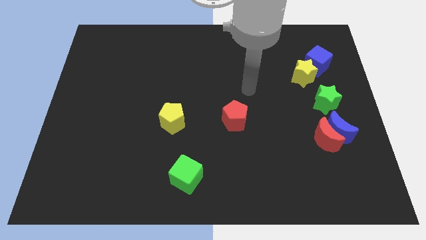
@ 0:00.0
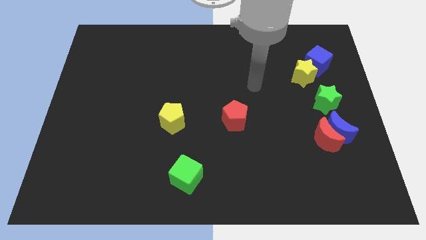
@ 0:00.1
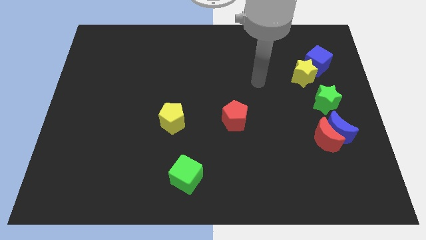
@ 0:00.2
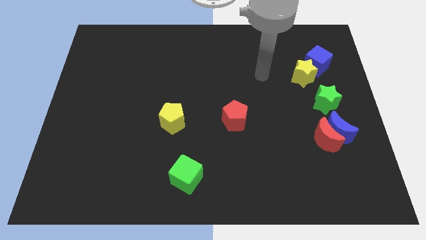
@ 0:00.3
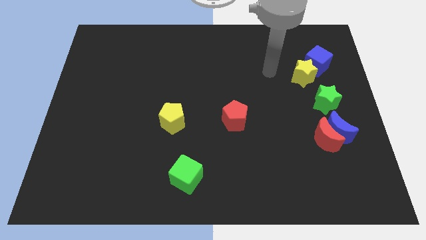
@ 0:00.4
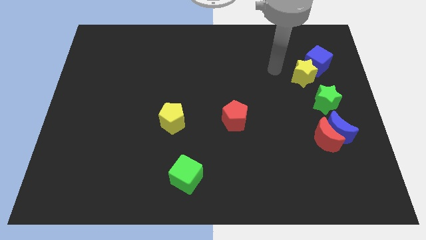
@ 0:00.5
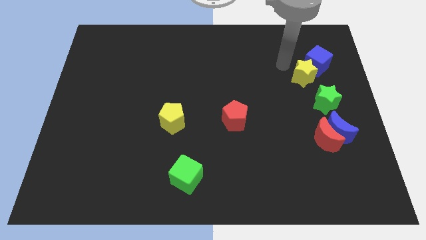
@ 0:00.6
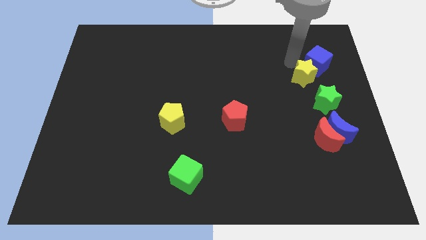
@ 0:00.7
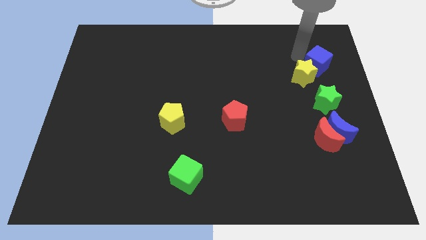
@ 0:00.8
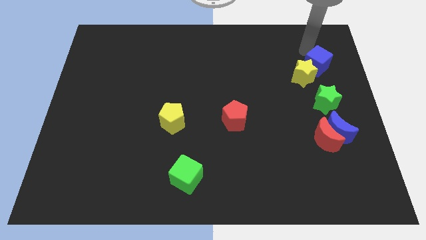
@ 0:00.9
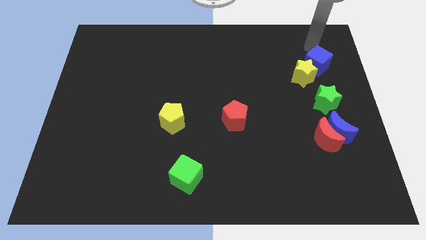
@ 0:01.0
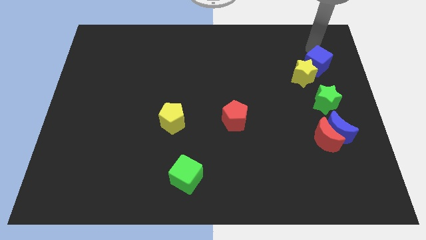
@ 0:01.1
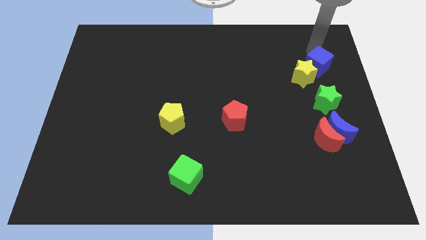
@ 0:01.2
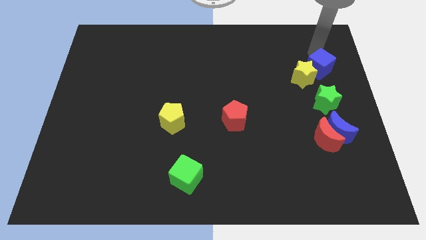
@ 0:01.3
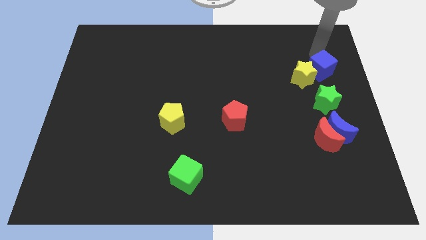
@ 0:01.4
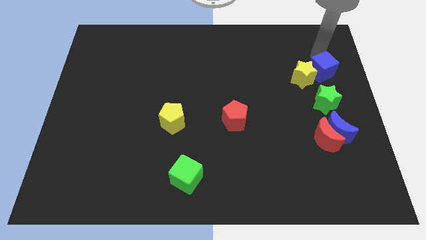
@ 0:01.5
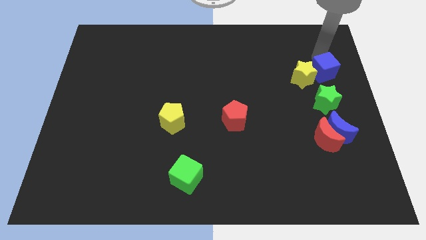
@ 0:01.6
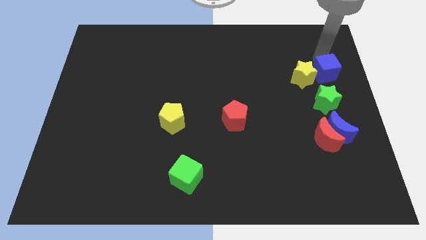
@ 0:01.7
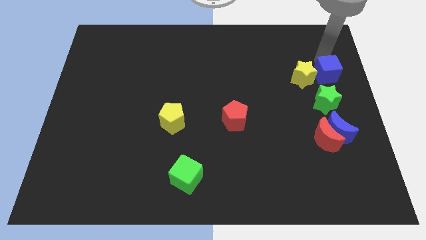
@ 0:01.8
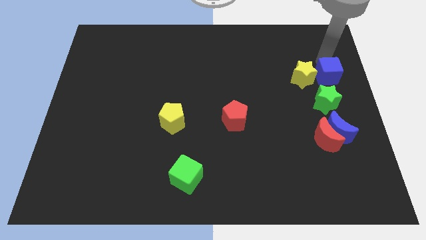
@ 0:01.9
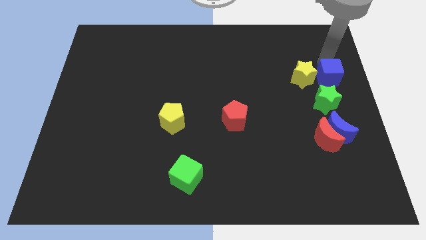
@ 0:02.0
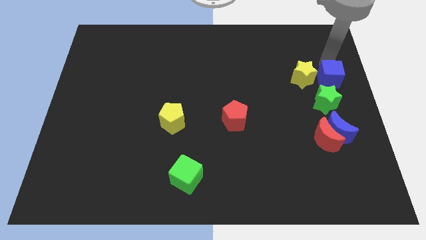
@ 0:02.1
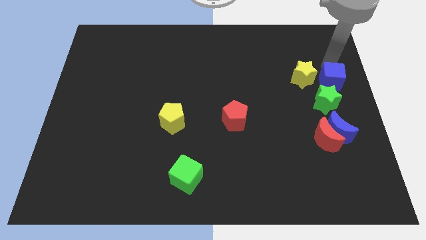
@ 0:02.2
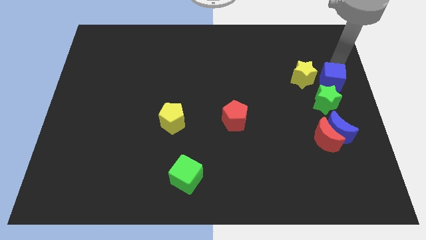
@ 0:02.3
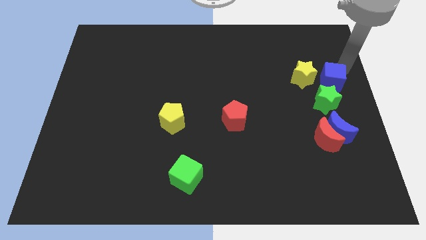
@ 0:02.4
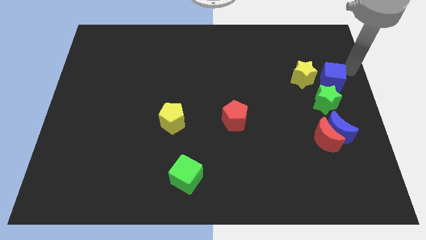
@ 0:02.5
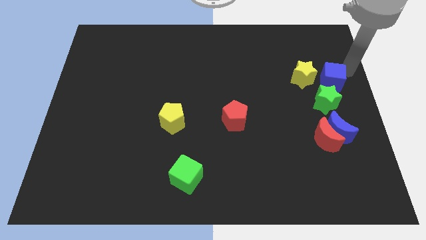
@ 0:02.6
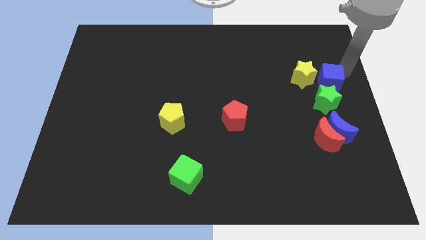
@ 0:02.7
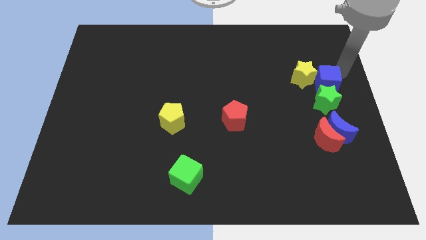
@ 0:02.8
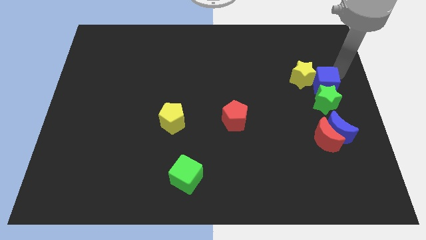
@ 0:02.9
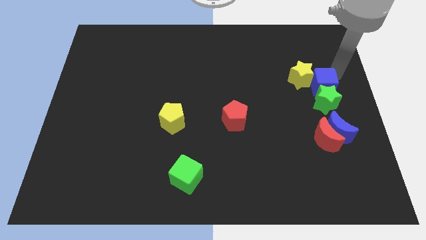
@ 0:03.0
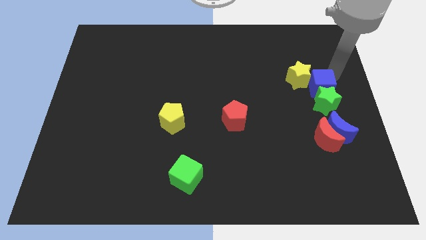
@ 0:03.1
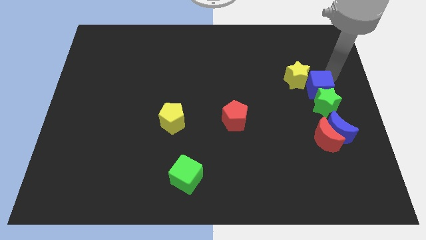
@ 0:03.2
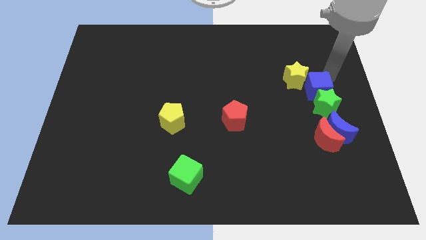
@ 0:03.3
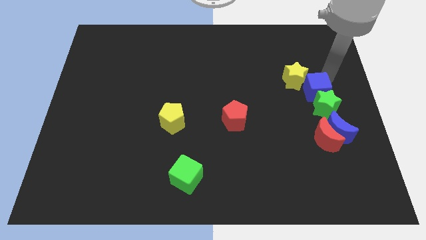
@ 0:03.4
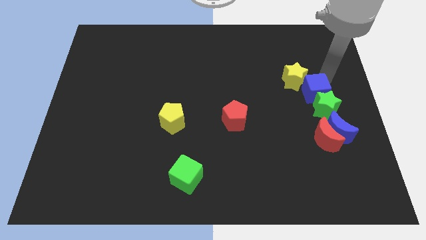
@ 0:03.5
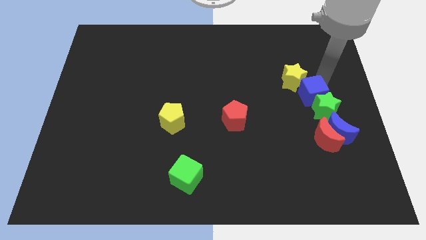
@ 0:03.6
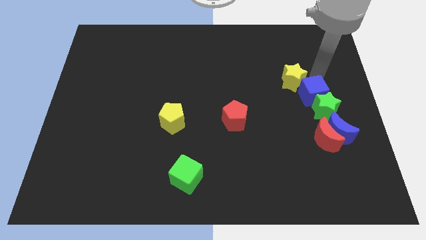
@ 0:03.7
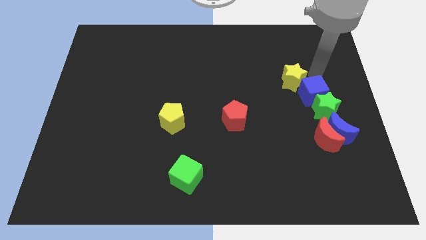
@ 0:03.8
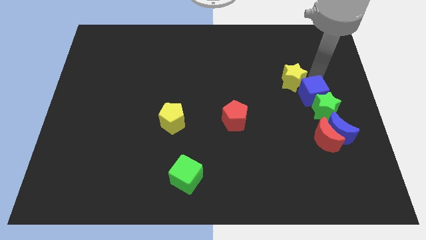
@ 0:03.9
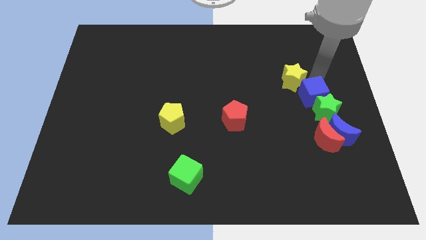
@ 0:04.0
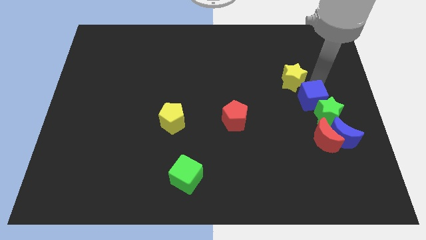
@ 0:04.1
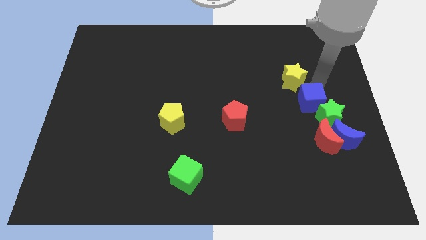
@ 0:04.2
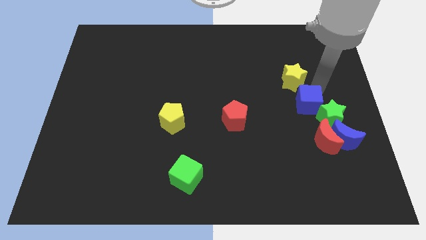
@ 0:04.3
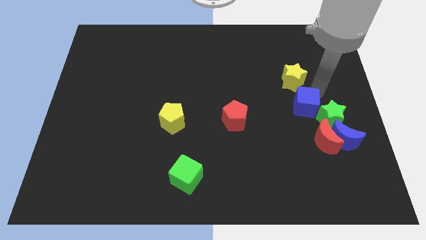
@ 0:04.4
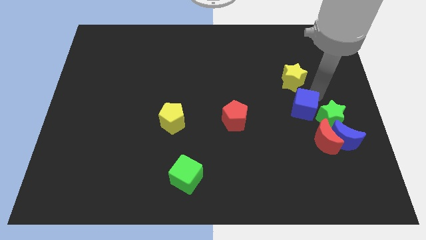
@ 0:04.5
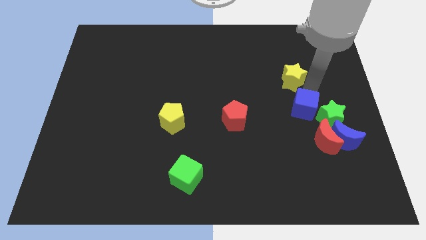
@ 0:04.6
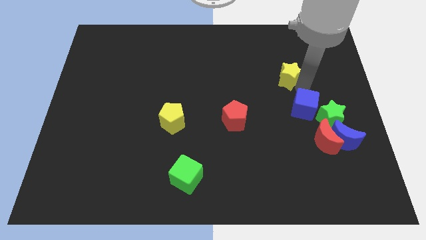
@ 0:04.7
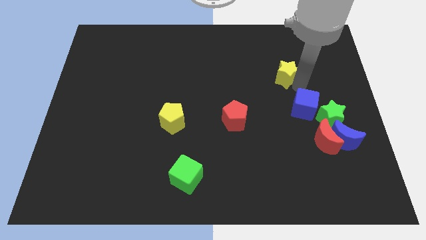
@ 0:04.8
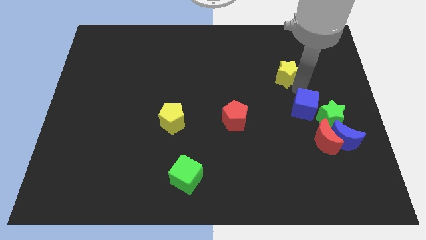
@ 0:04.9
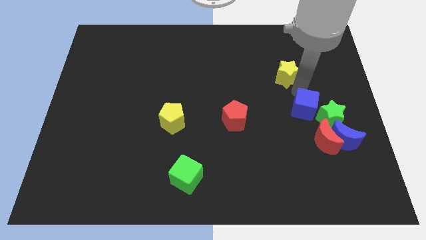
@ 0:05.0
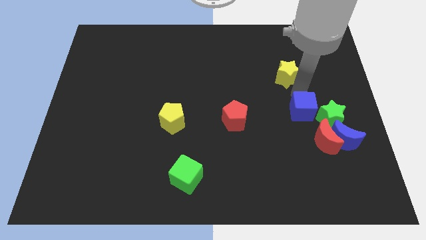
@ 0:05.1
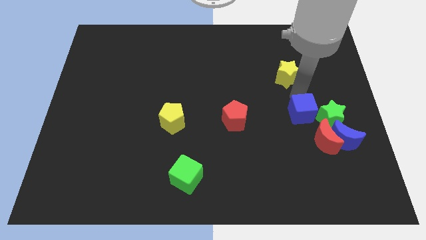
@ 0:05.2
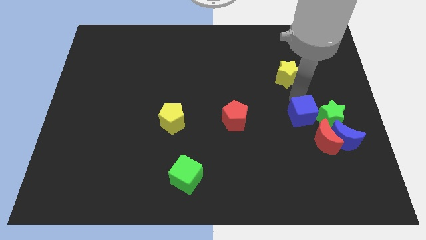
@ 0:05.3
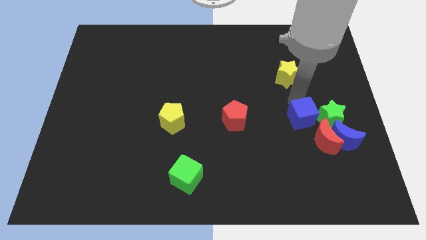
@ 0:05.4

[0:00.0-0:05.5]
slide the blue cube to the bottom left side of the green star

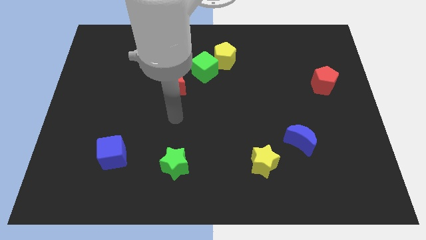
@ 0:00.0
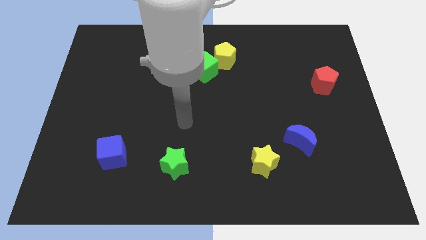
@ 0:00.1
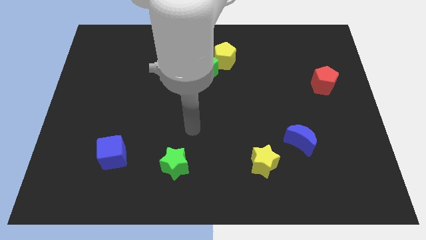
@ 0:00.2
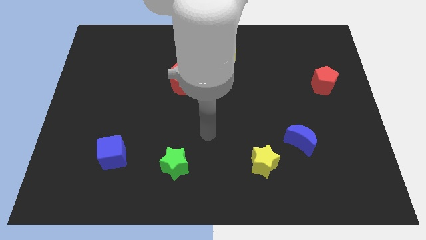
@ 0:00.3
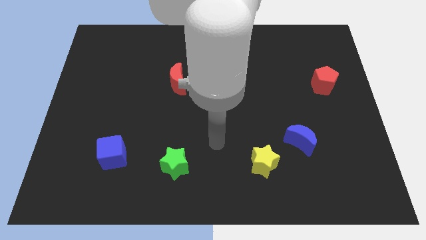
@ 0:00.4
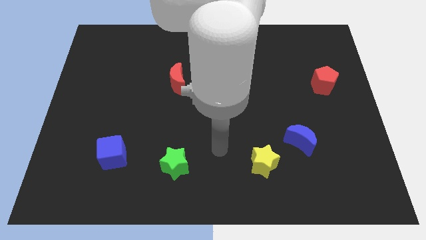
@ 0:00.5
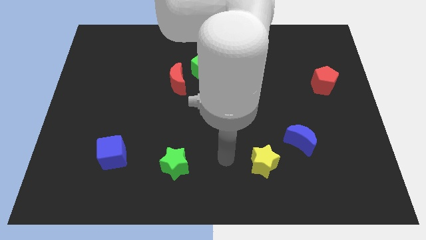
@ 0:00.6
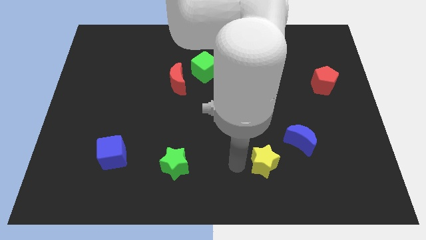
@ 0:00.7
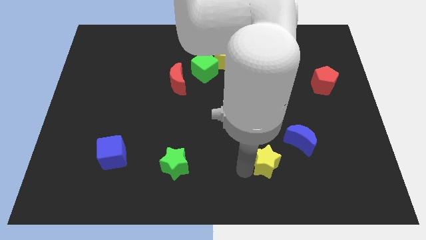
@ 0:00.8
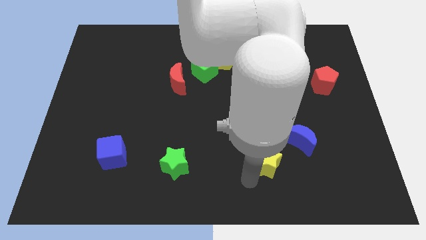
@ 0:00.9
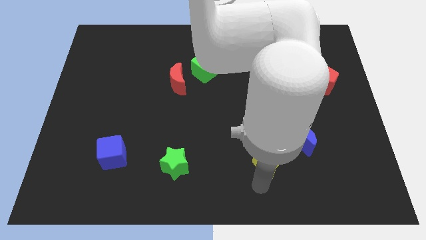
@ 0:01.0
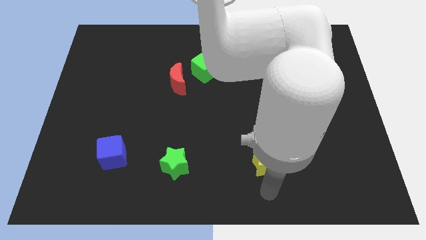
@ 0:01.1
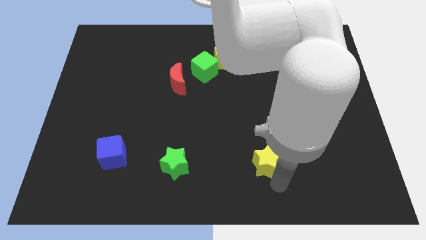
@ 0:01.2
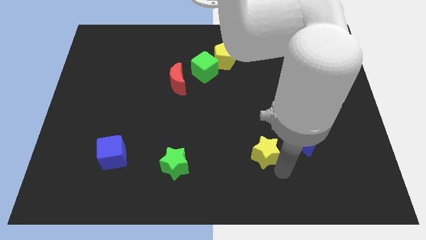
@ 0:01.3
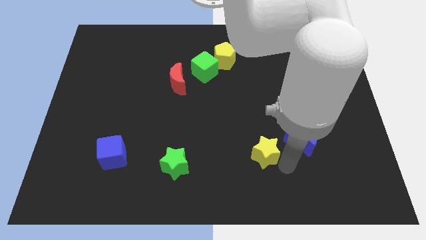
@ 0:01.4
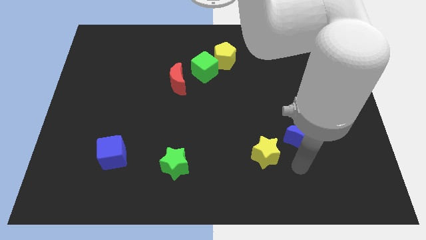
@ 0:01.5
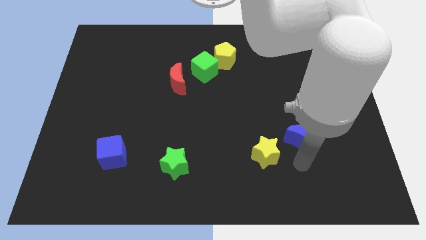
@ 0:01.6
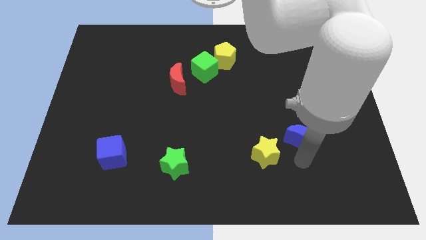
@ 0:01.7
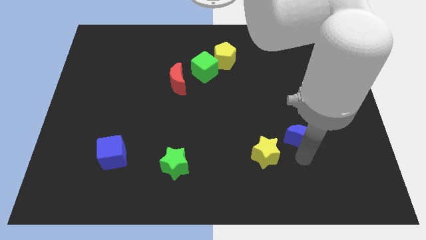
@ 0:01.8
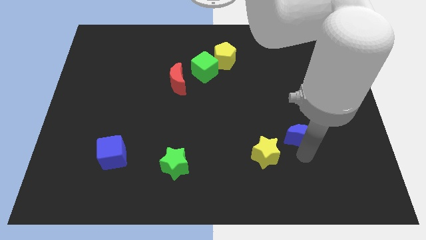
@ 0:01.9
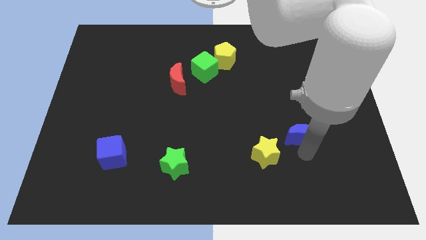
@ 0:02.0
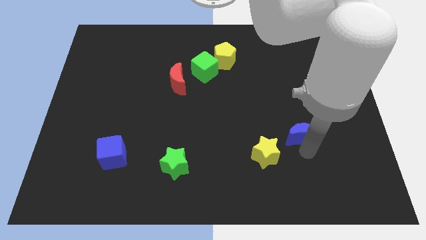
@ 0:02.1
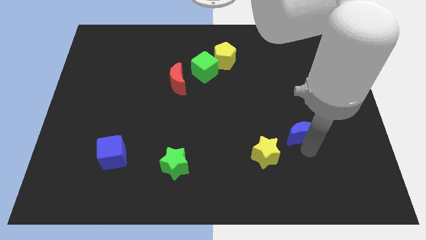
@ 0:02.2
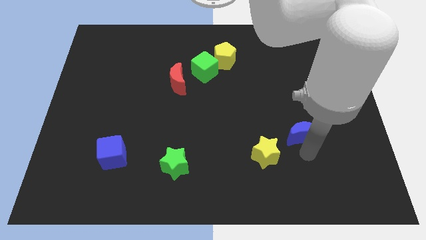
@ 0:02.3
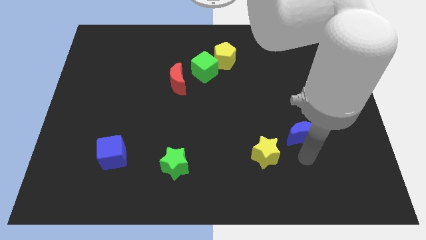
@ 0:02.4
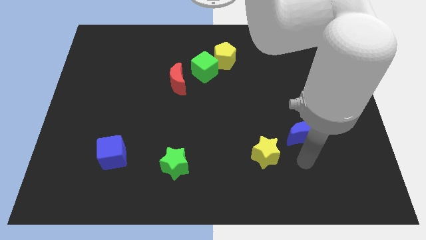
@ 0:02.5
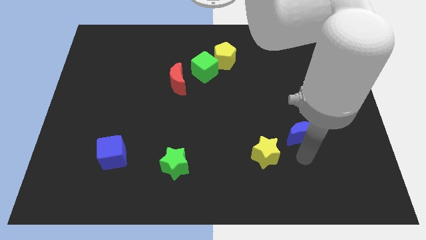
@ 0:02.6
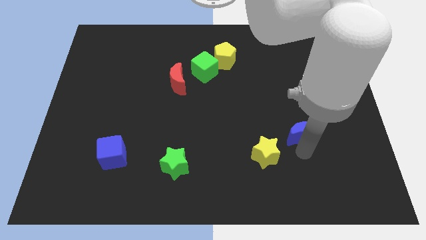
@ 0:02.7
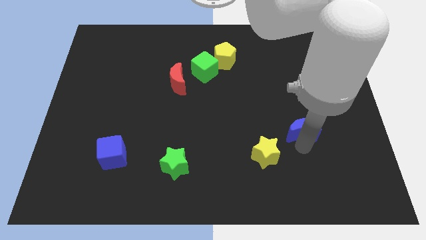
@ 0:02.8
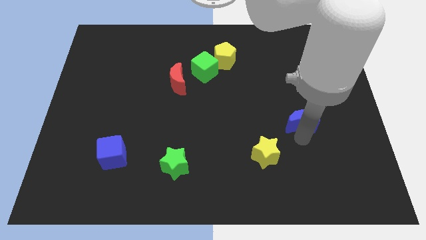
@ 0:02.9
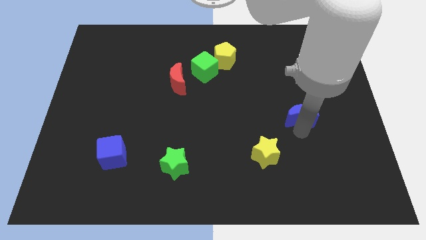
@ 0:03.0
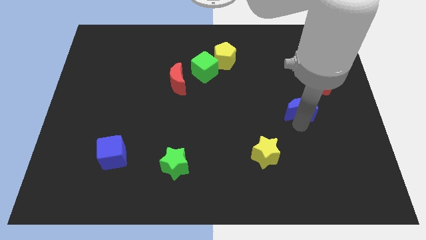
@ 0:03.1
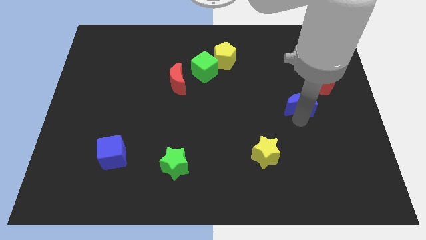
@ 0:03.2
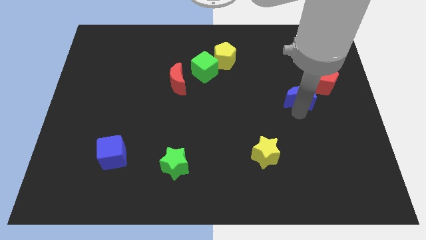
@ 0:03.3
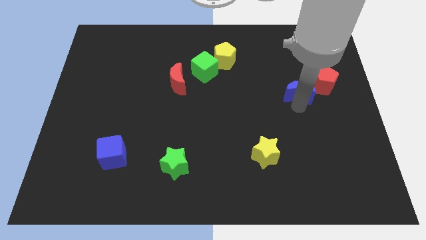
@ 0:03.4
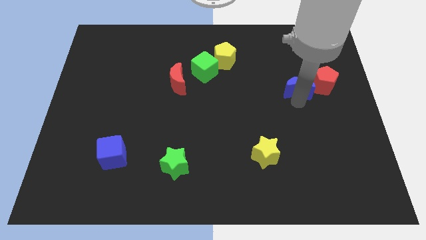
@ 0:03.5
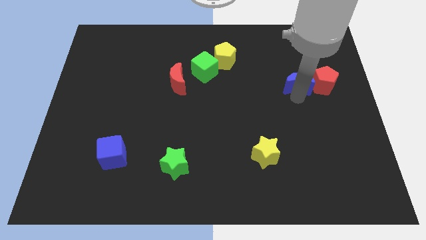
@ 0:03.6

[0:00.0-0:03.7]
slide the blue moon to the top left of the red pentagon
